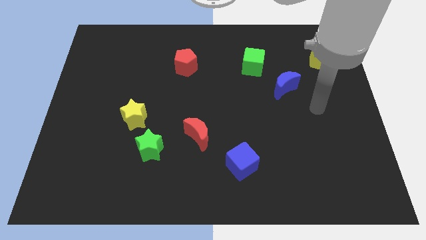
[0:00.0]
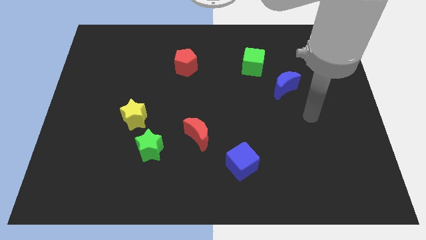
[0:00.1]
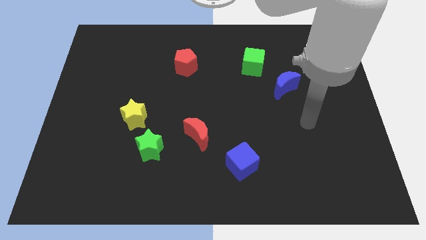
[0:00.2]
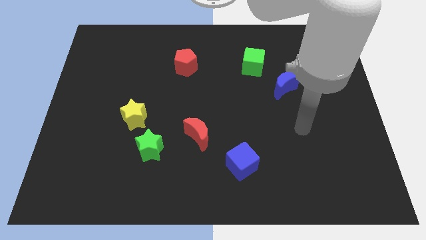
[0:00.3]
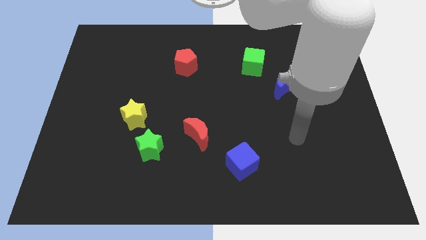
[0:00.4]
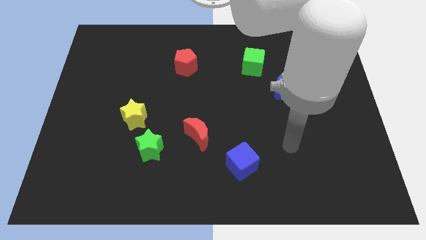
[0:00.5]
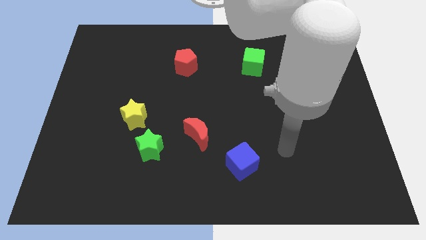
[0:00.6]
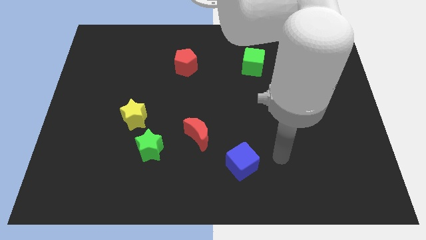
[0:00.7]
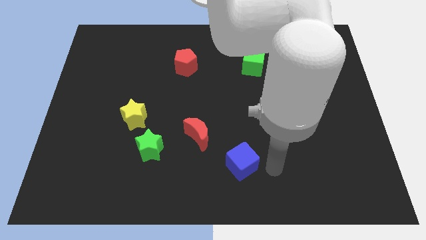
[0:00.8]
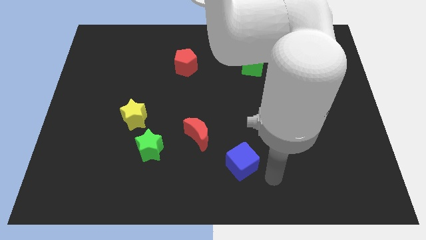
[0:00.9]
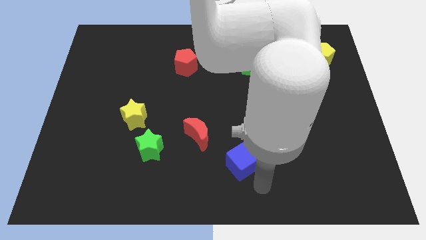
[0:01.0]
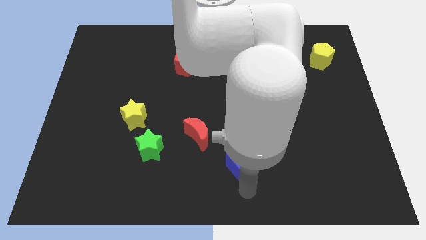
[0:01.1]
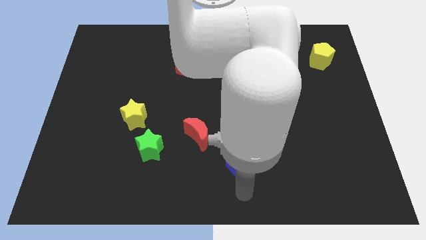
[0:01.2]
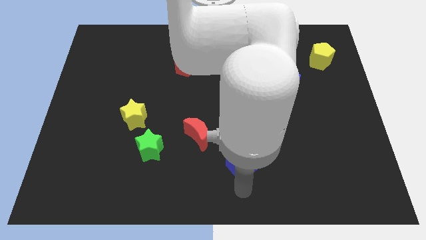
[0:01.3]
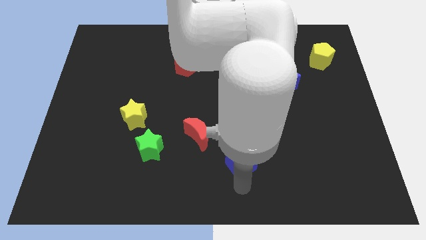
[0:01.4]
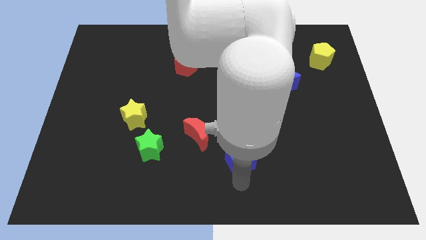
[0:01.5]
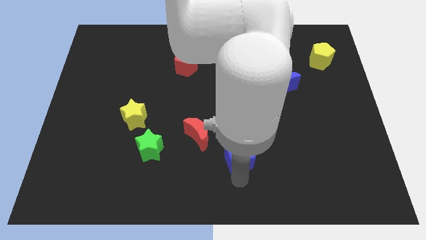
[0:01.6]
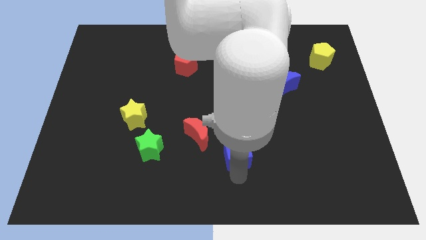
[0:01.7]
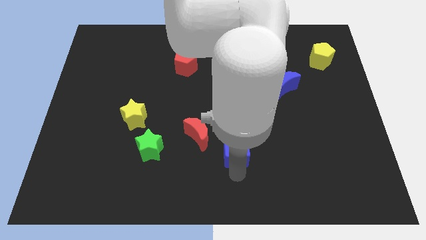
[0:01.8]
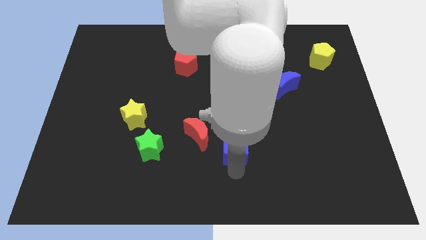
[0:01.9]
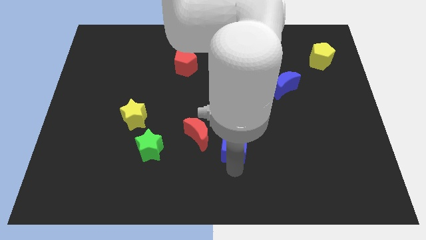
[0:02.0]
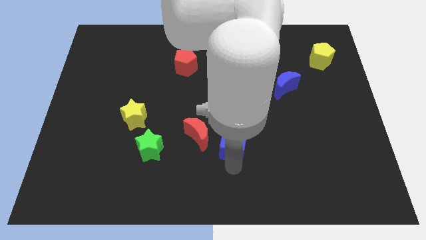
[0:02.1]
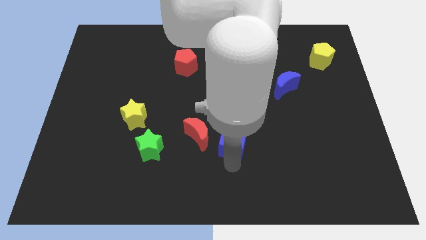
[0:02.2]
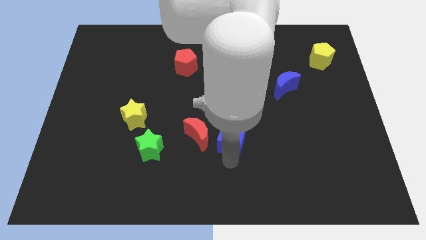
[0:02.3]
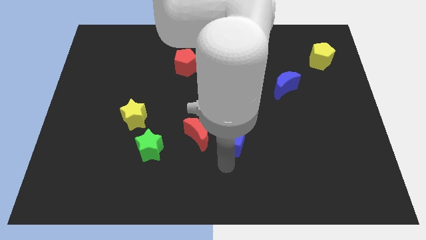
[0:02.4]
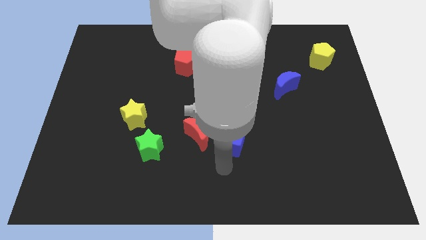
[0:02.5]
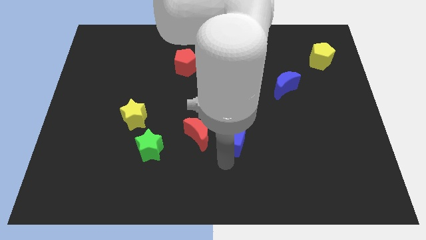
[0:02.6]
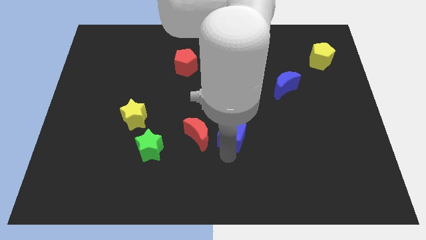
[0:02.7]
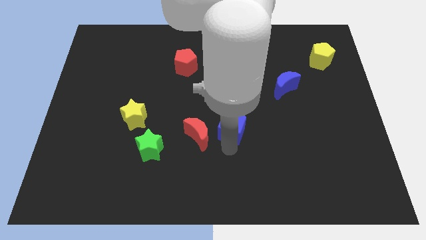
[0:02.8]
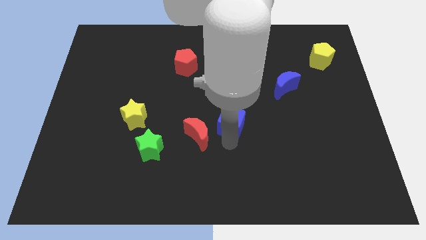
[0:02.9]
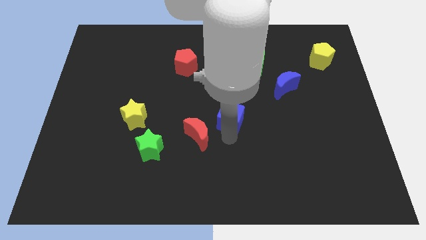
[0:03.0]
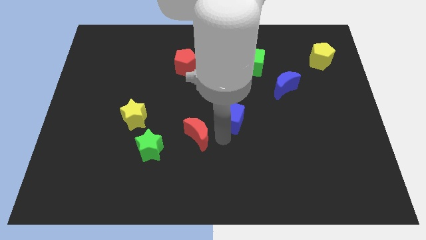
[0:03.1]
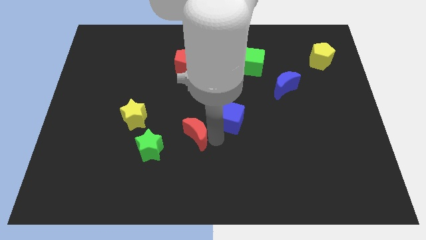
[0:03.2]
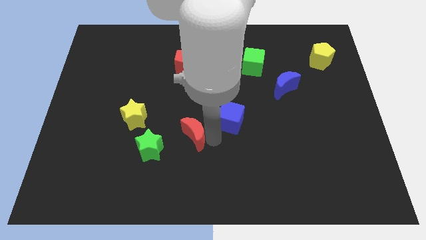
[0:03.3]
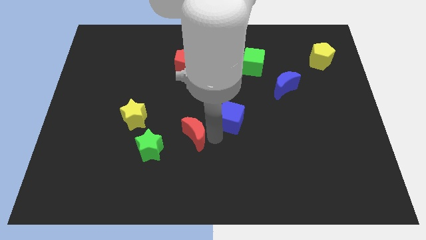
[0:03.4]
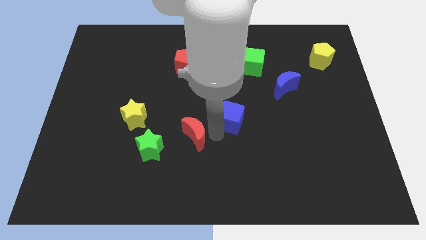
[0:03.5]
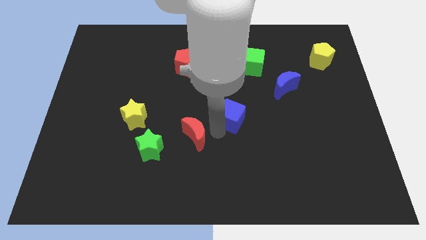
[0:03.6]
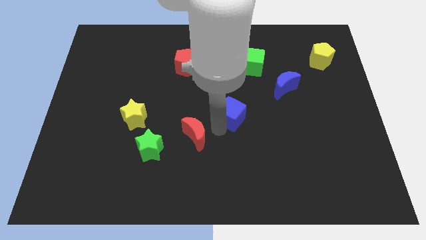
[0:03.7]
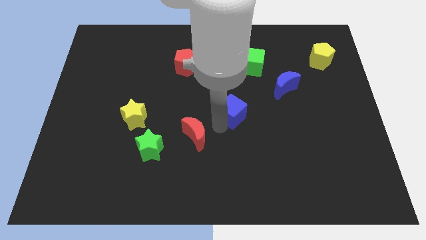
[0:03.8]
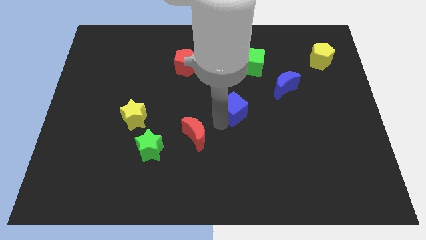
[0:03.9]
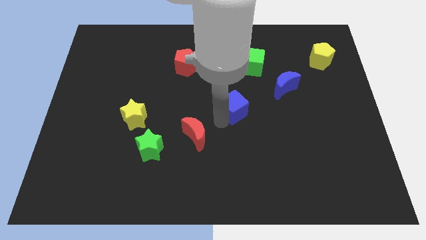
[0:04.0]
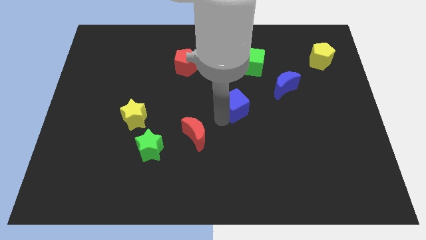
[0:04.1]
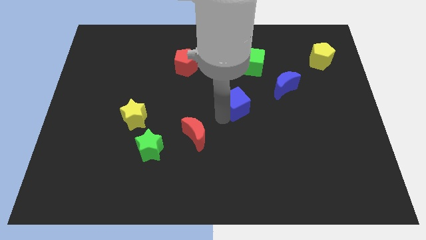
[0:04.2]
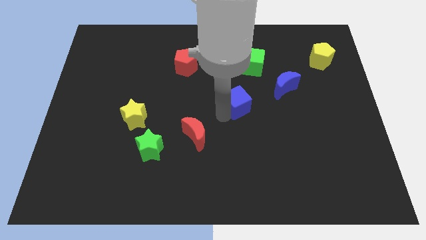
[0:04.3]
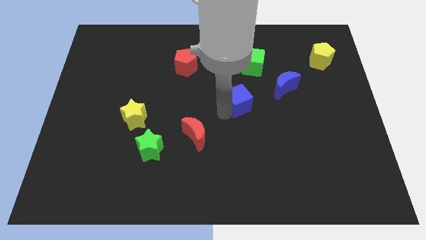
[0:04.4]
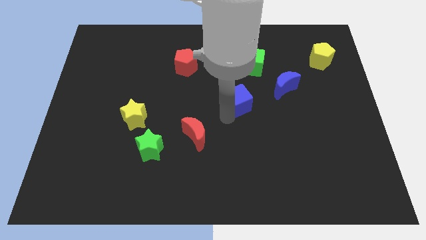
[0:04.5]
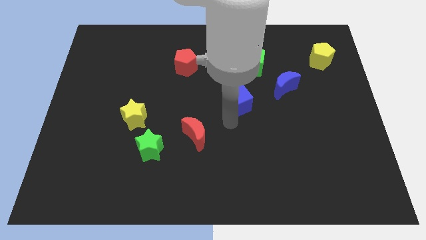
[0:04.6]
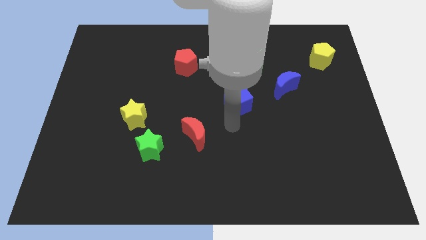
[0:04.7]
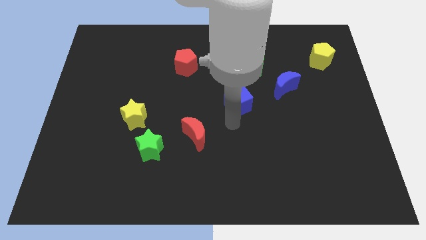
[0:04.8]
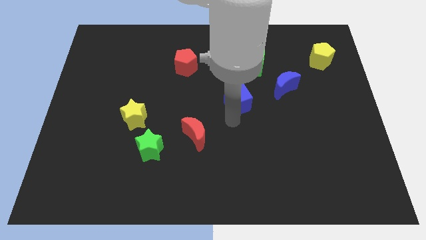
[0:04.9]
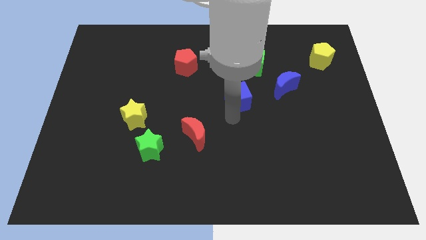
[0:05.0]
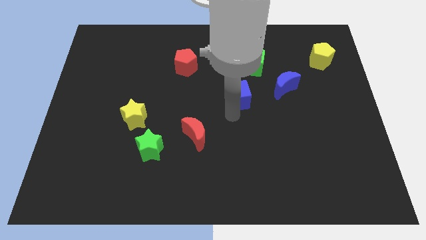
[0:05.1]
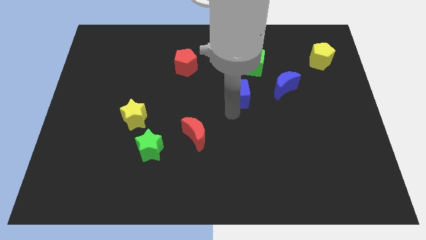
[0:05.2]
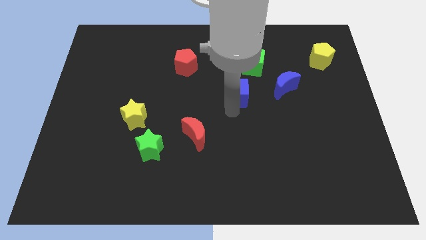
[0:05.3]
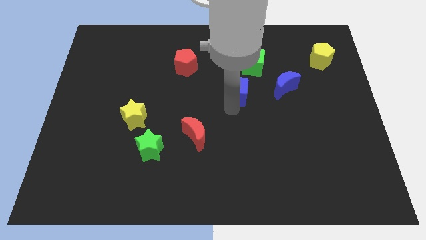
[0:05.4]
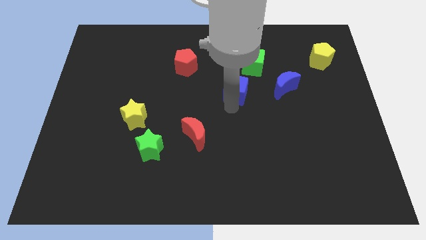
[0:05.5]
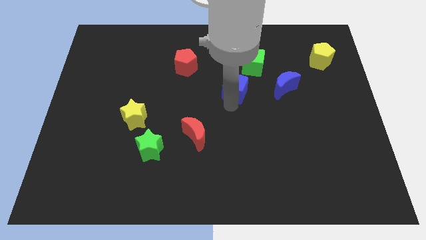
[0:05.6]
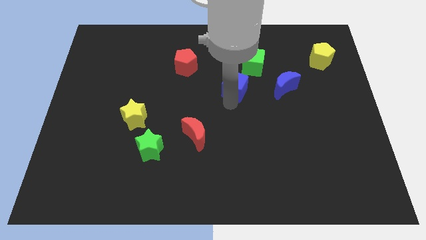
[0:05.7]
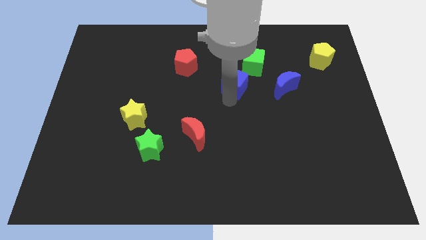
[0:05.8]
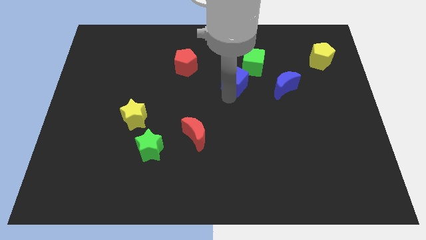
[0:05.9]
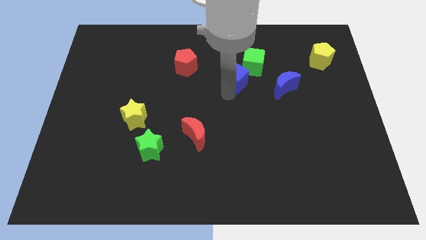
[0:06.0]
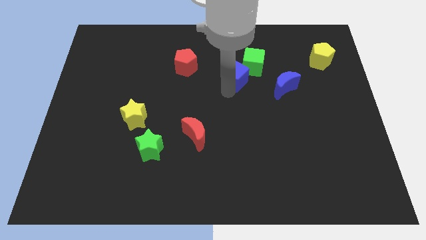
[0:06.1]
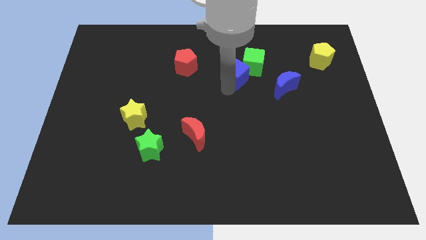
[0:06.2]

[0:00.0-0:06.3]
push the blue cube to the green cube

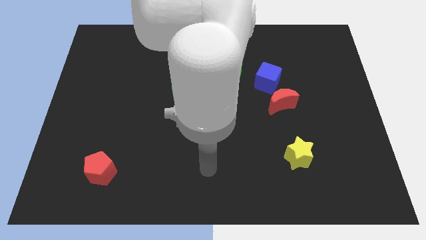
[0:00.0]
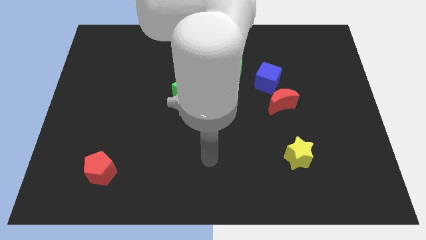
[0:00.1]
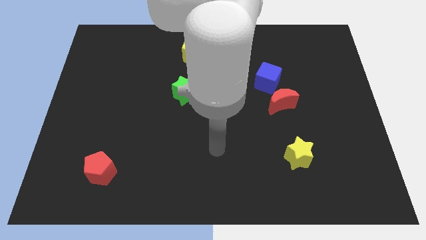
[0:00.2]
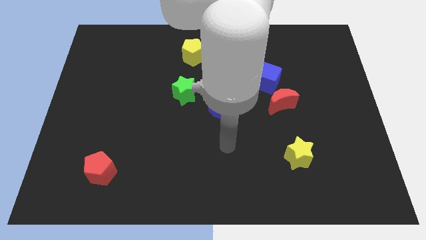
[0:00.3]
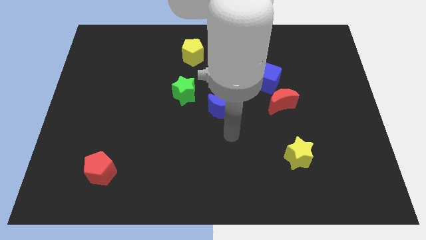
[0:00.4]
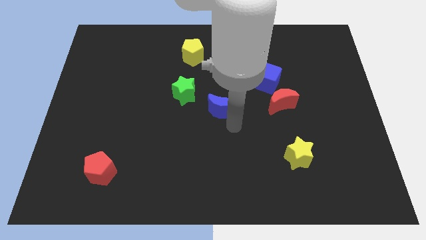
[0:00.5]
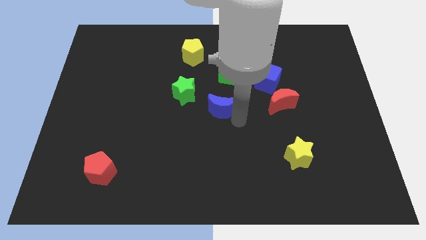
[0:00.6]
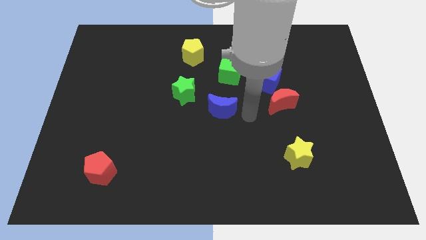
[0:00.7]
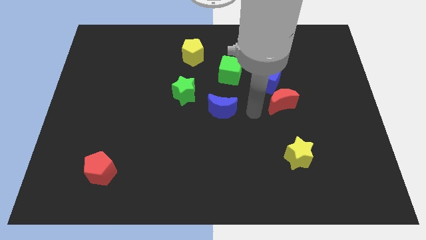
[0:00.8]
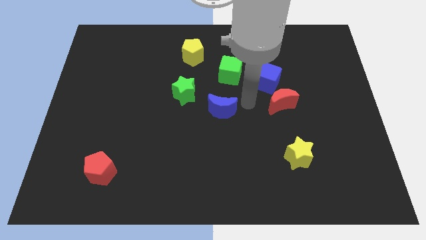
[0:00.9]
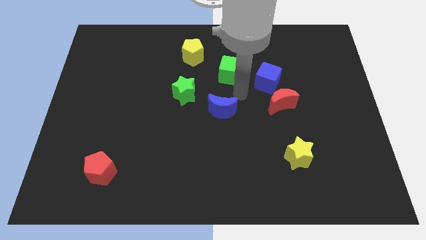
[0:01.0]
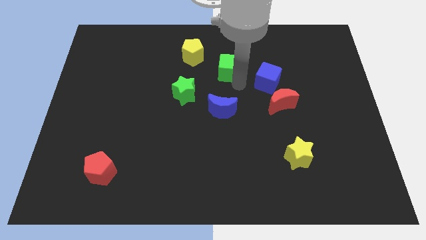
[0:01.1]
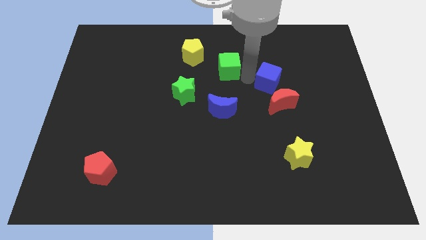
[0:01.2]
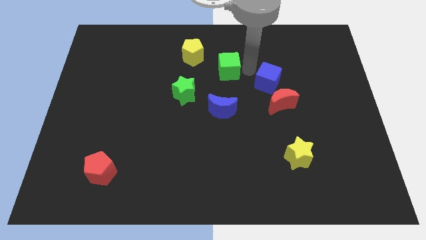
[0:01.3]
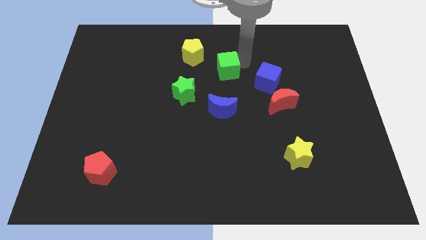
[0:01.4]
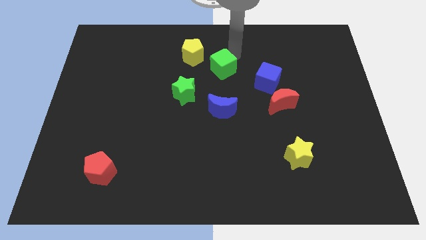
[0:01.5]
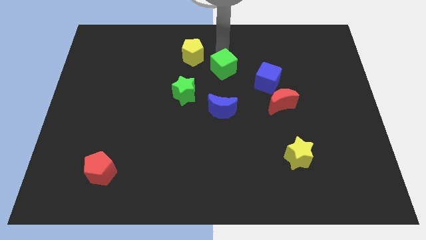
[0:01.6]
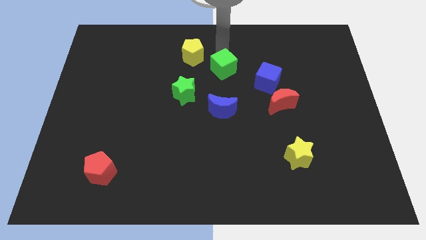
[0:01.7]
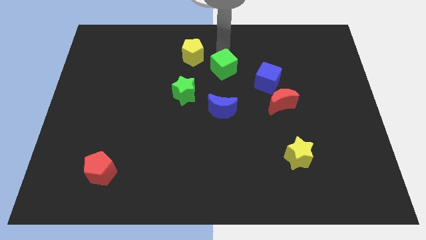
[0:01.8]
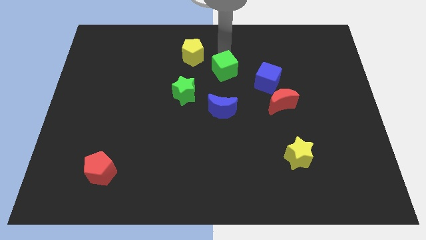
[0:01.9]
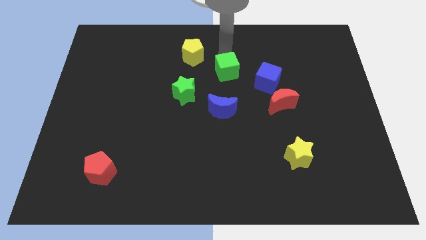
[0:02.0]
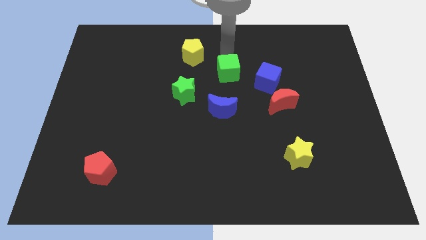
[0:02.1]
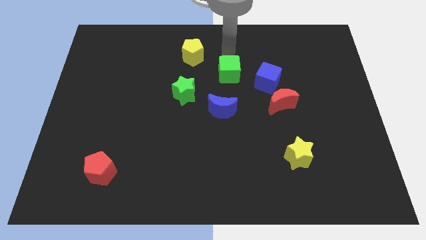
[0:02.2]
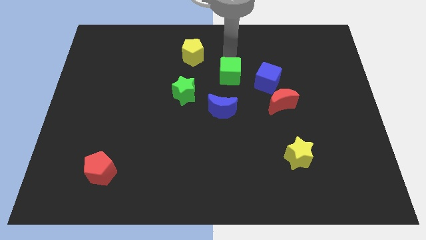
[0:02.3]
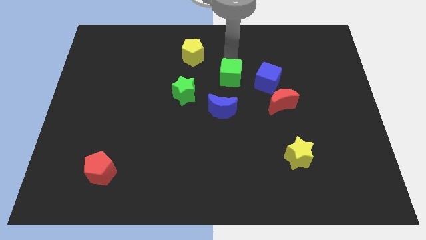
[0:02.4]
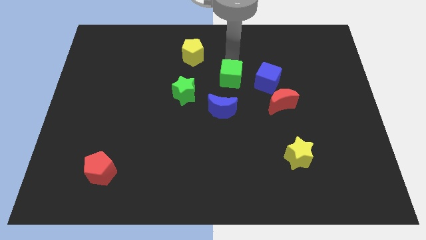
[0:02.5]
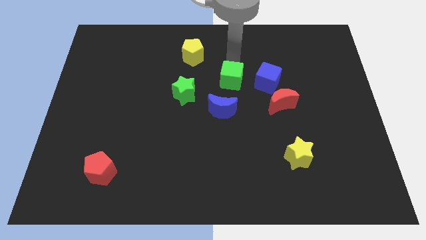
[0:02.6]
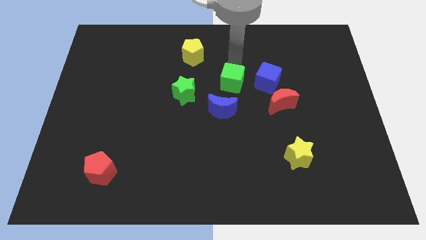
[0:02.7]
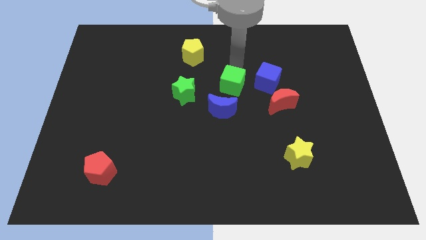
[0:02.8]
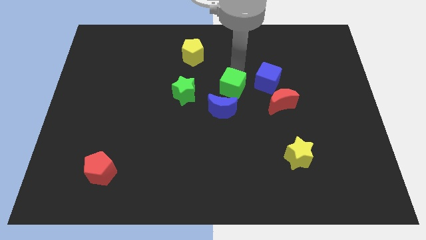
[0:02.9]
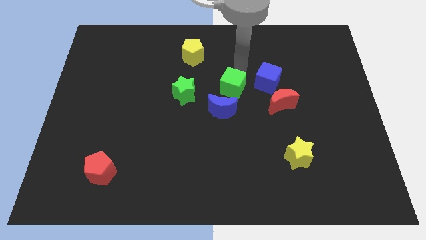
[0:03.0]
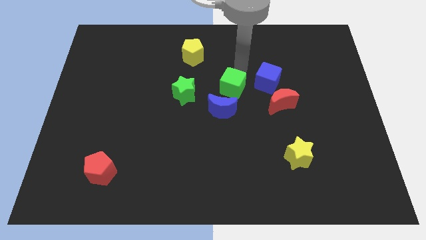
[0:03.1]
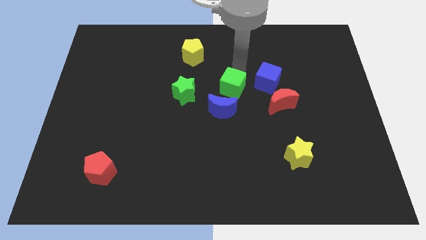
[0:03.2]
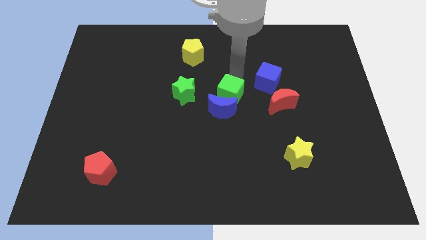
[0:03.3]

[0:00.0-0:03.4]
put the green cube next to the blue moon
